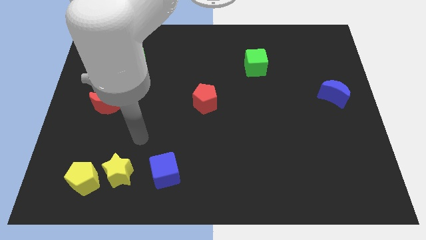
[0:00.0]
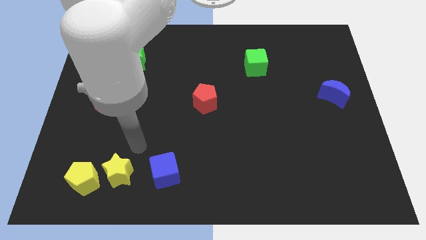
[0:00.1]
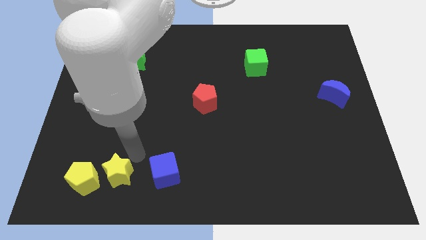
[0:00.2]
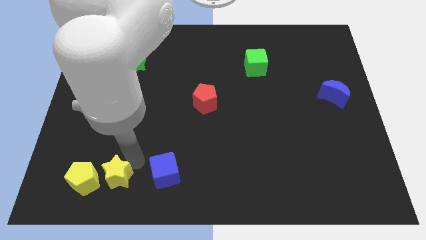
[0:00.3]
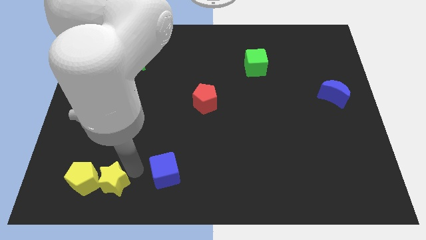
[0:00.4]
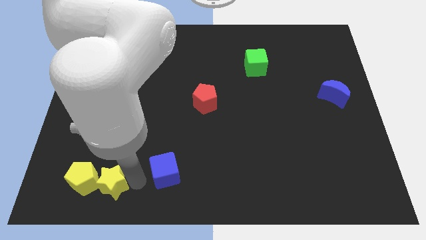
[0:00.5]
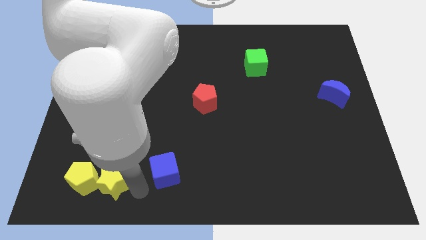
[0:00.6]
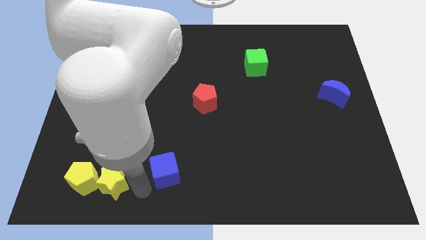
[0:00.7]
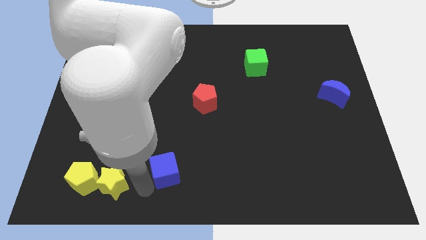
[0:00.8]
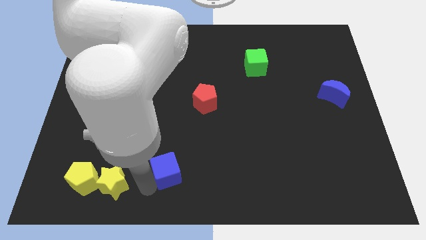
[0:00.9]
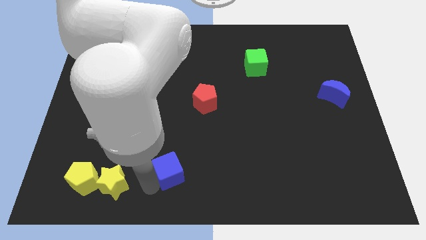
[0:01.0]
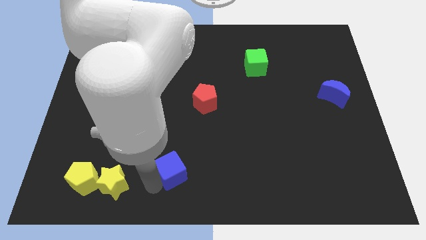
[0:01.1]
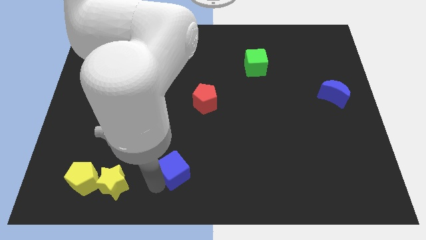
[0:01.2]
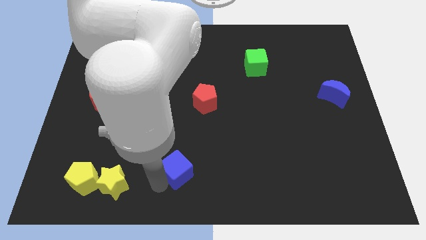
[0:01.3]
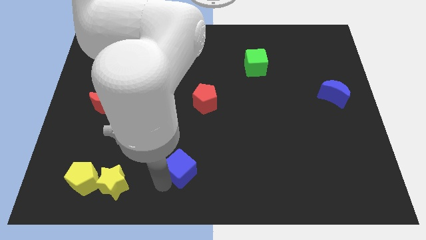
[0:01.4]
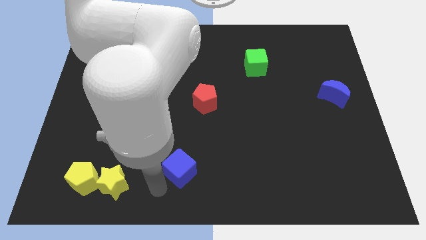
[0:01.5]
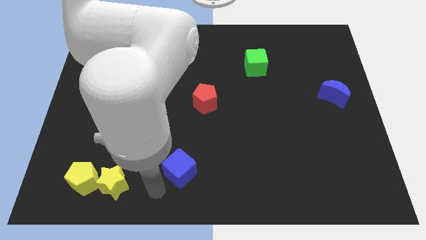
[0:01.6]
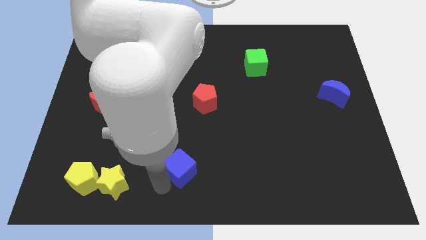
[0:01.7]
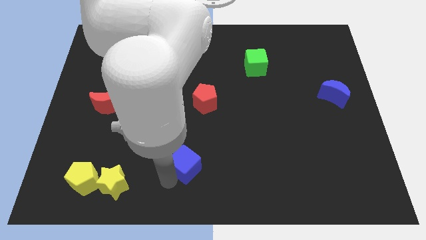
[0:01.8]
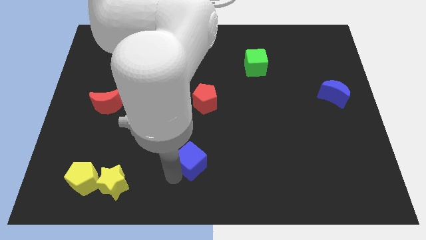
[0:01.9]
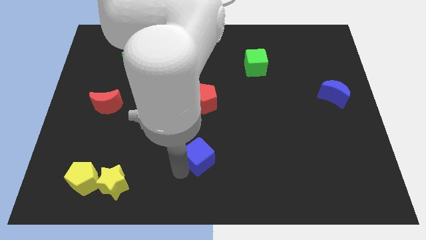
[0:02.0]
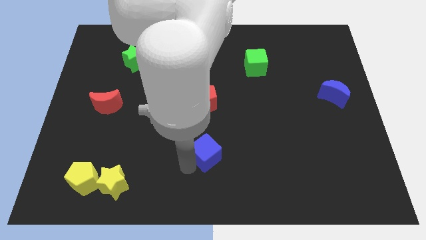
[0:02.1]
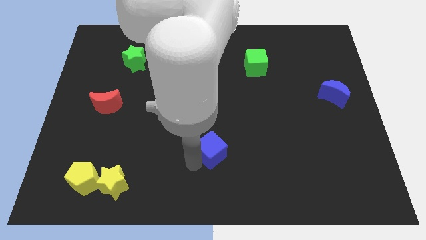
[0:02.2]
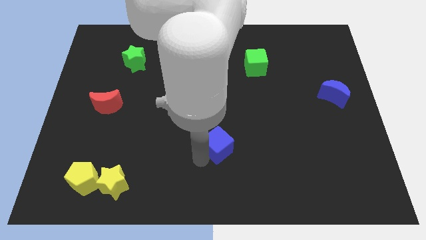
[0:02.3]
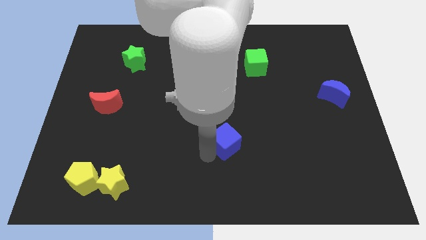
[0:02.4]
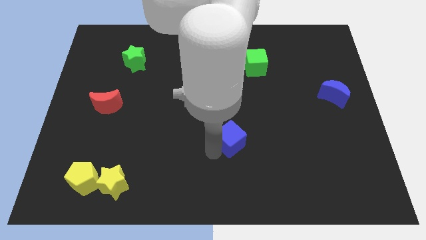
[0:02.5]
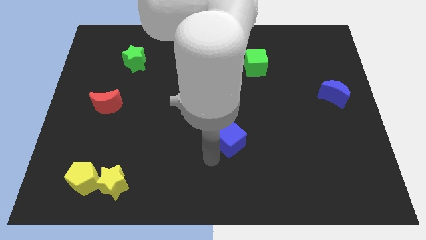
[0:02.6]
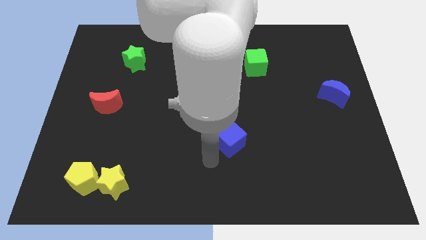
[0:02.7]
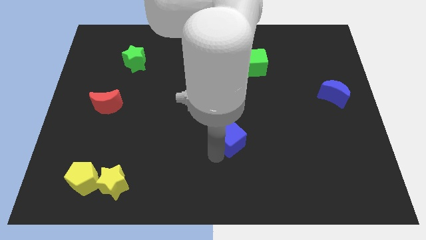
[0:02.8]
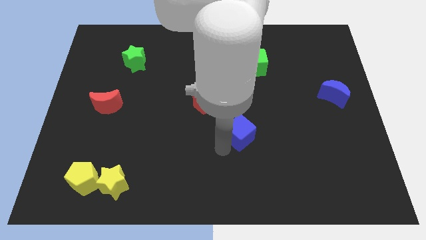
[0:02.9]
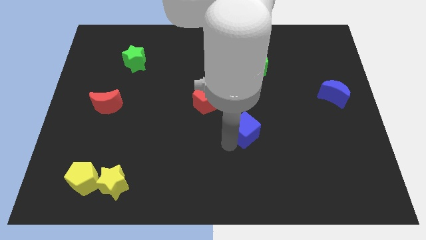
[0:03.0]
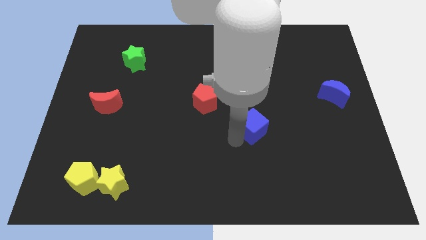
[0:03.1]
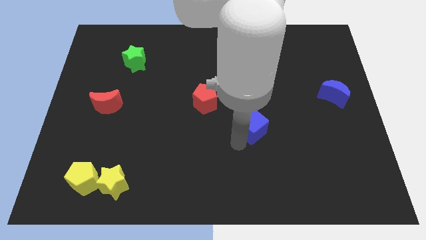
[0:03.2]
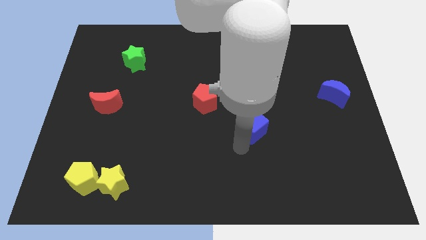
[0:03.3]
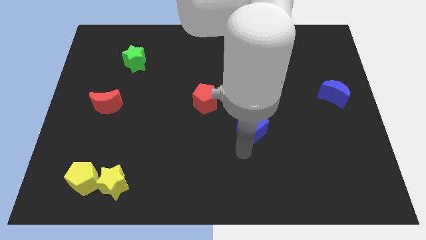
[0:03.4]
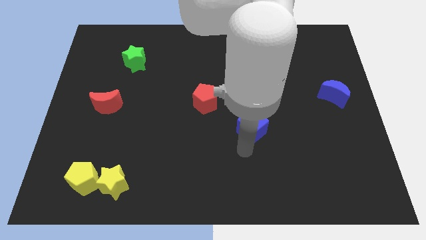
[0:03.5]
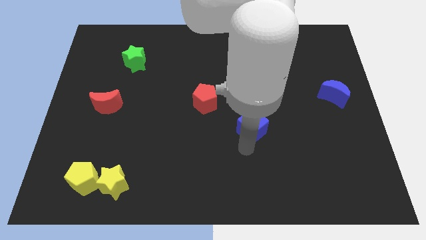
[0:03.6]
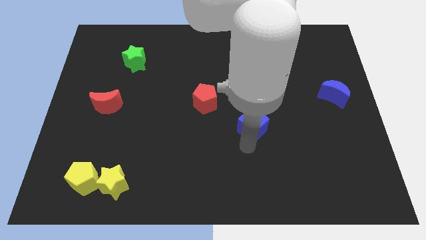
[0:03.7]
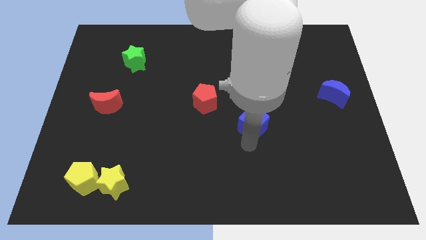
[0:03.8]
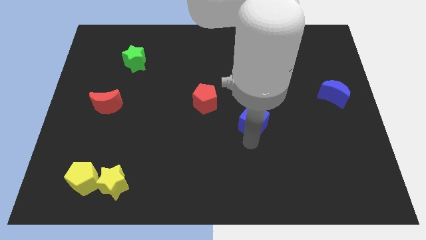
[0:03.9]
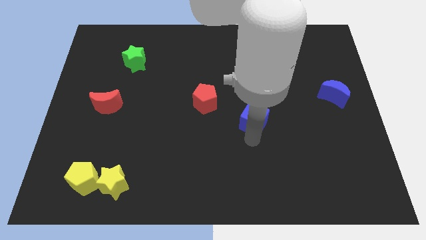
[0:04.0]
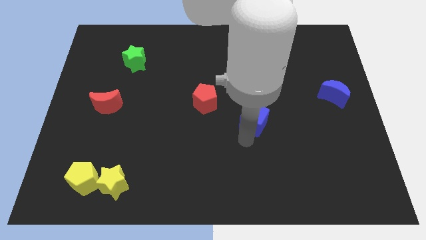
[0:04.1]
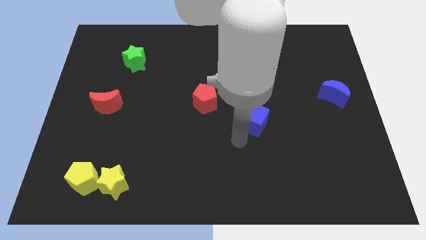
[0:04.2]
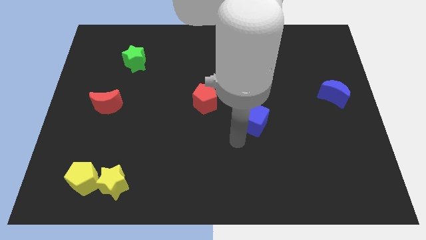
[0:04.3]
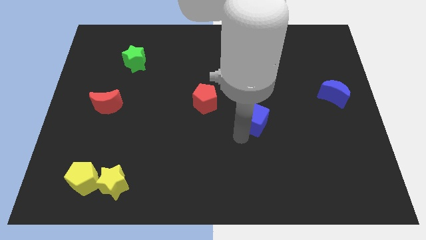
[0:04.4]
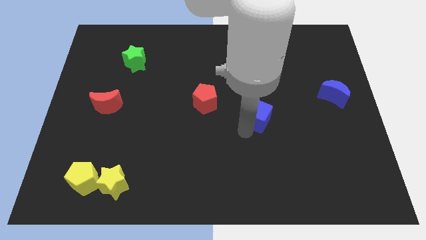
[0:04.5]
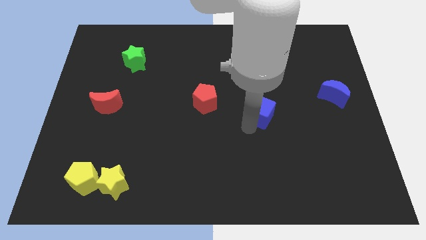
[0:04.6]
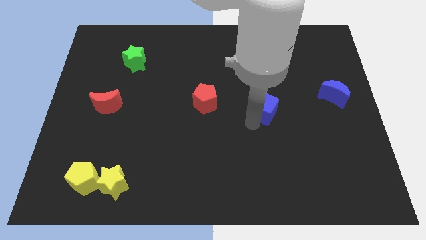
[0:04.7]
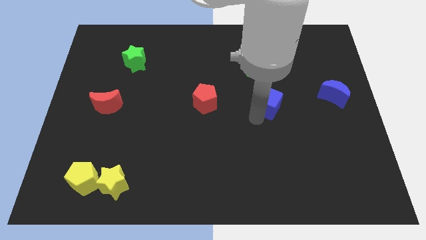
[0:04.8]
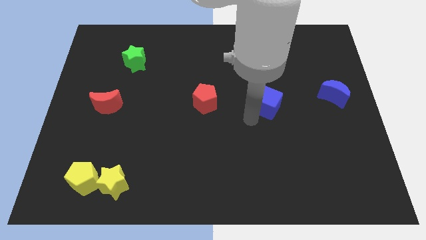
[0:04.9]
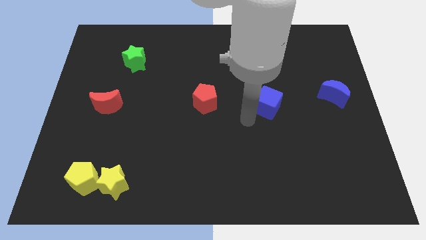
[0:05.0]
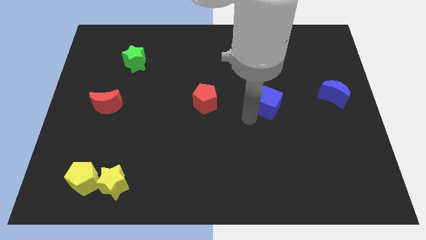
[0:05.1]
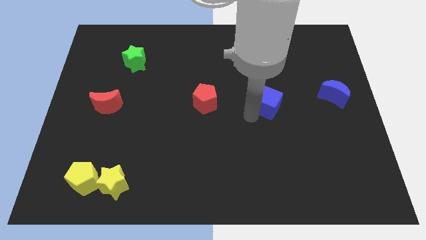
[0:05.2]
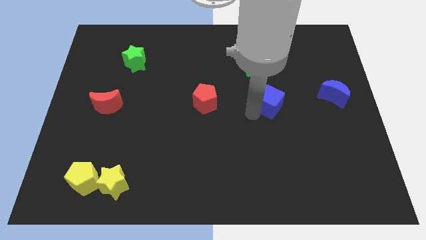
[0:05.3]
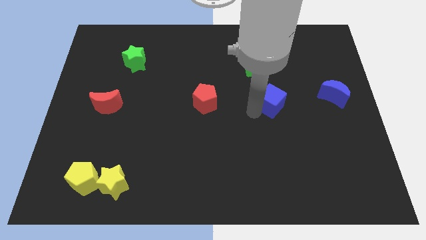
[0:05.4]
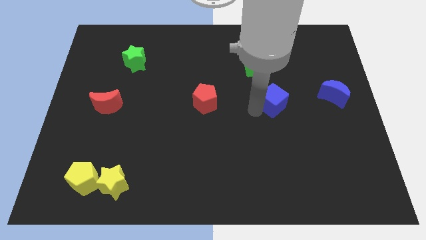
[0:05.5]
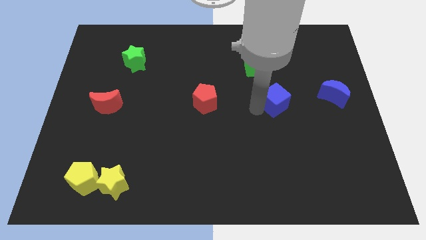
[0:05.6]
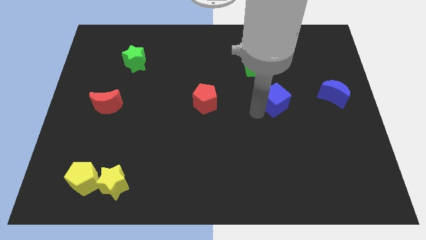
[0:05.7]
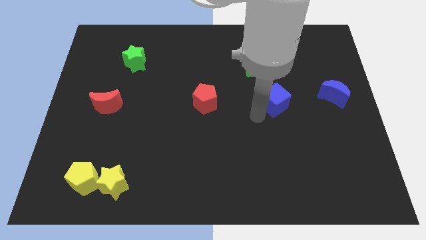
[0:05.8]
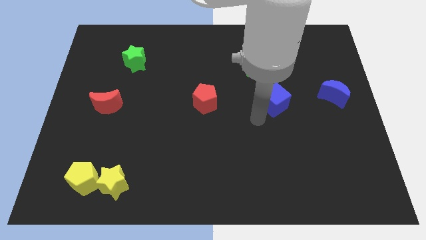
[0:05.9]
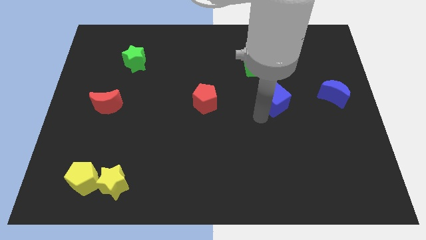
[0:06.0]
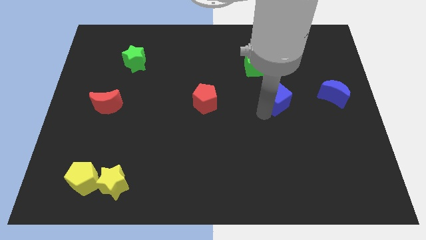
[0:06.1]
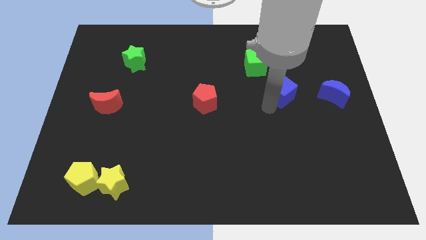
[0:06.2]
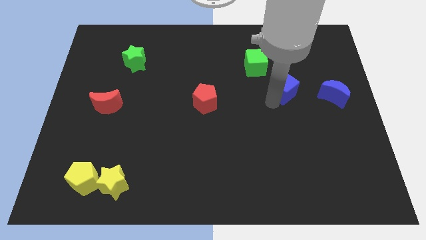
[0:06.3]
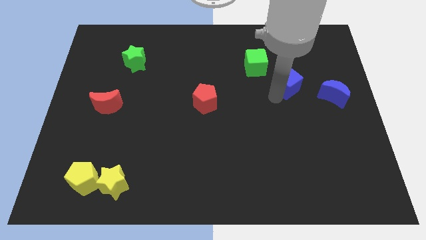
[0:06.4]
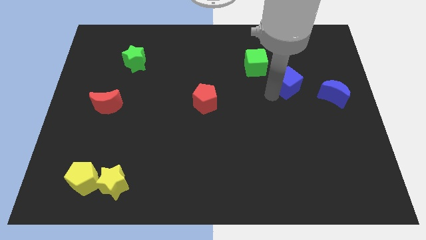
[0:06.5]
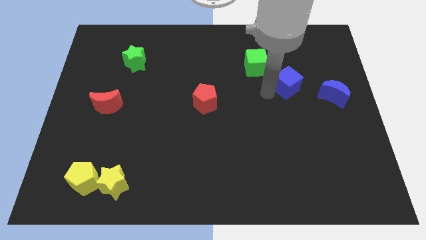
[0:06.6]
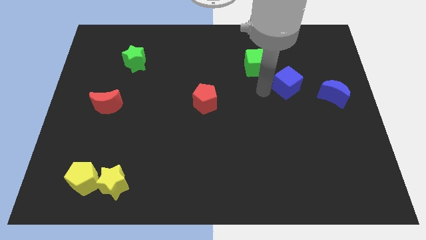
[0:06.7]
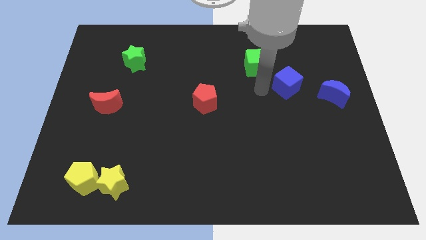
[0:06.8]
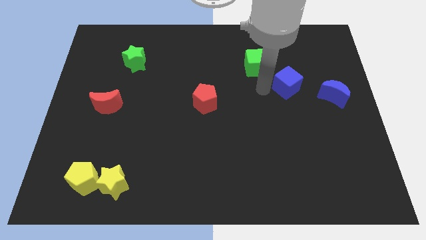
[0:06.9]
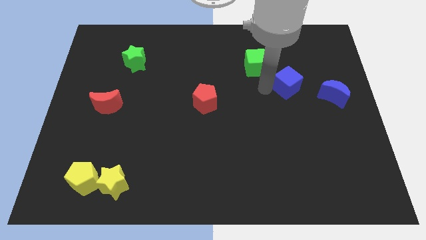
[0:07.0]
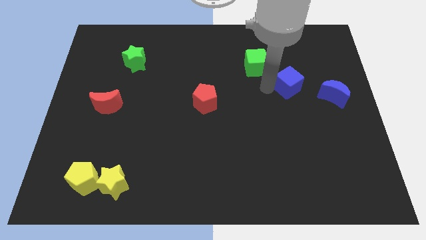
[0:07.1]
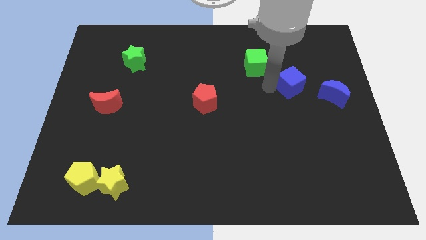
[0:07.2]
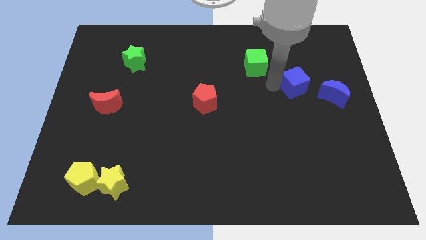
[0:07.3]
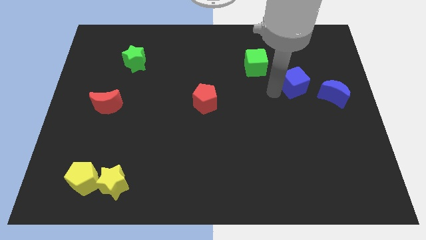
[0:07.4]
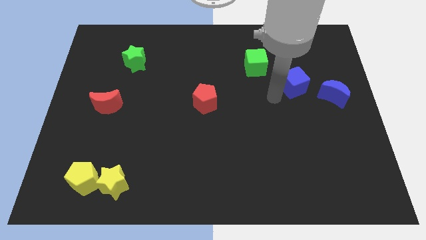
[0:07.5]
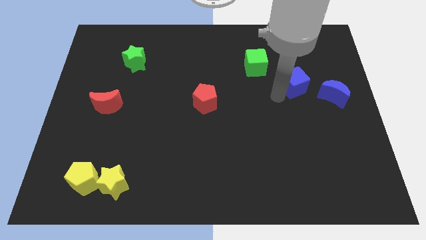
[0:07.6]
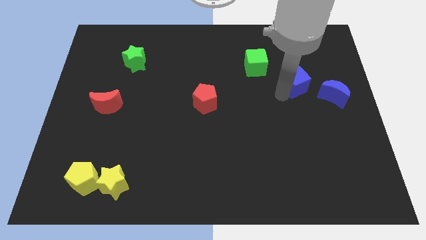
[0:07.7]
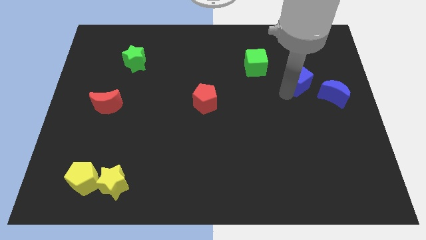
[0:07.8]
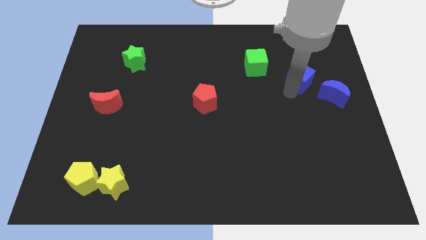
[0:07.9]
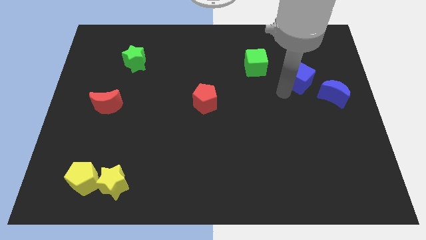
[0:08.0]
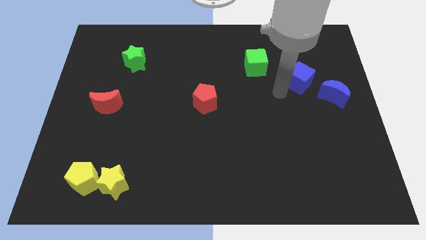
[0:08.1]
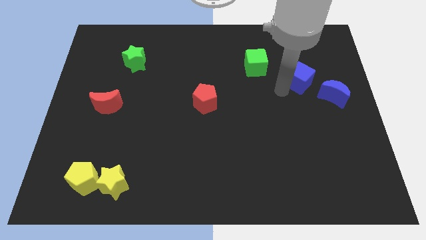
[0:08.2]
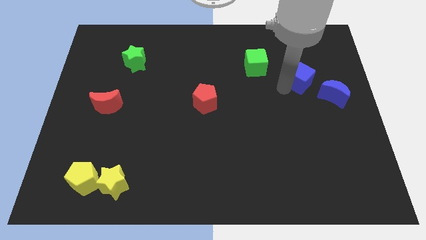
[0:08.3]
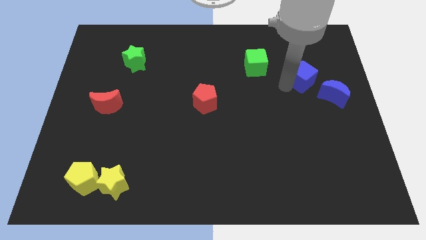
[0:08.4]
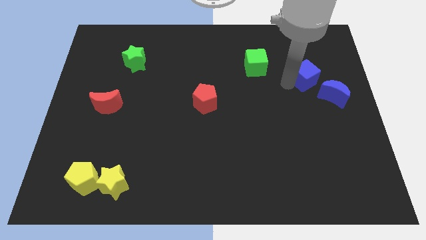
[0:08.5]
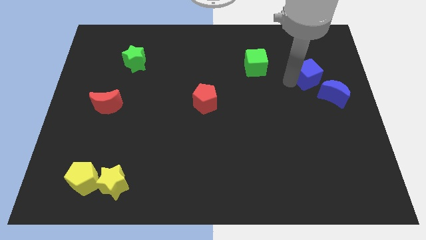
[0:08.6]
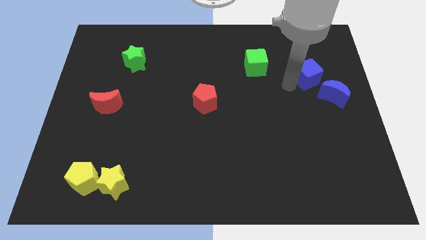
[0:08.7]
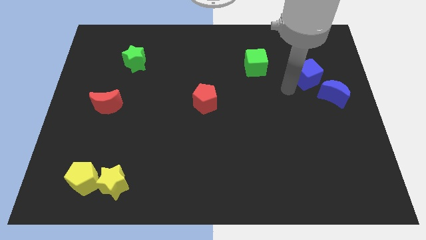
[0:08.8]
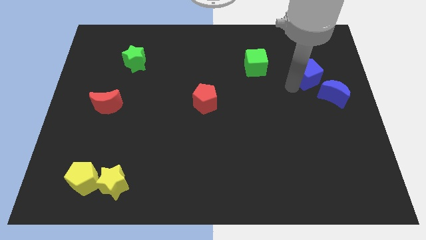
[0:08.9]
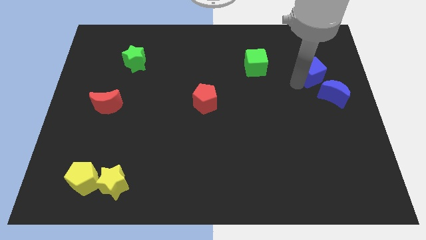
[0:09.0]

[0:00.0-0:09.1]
put the blue cube to the top side of the blue moon
